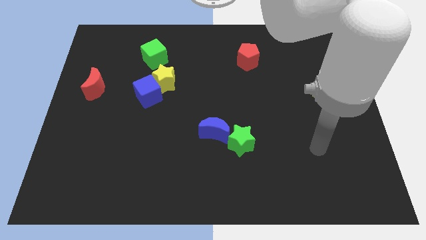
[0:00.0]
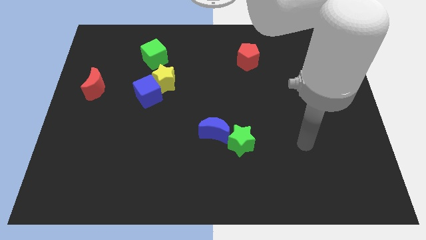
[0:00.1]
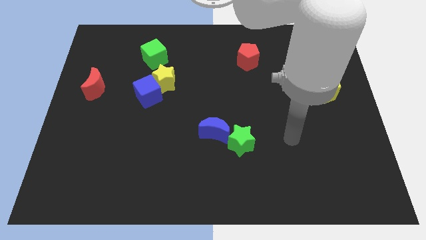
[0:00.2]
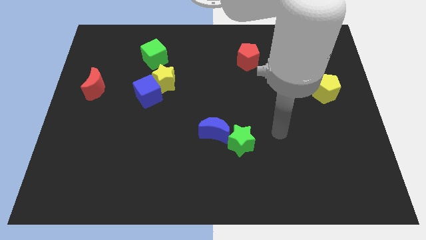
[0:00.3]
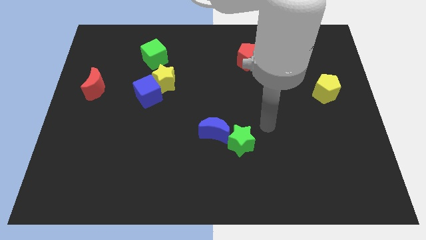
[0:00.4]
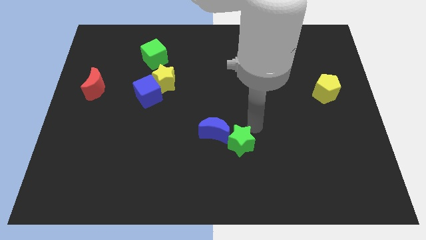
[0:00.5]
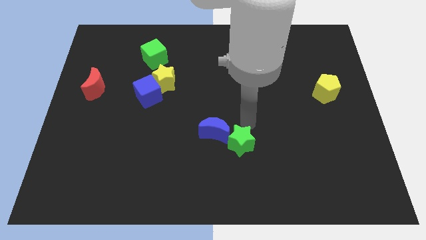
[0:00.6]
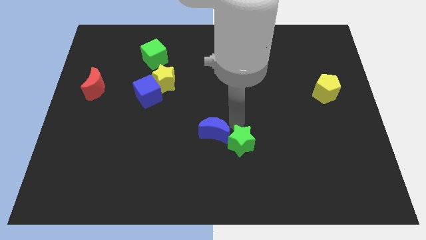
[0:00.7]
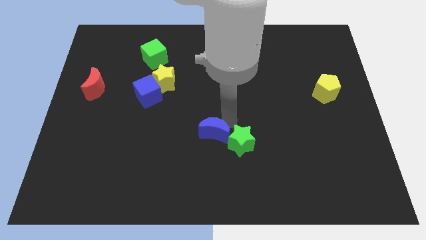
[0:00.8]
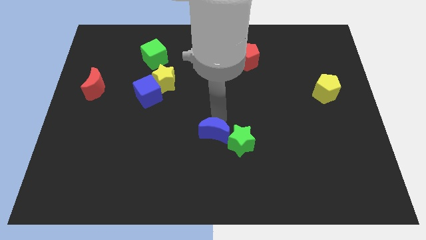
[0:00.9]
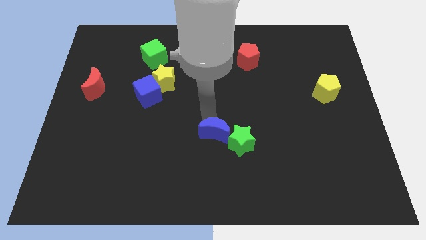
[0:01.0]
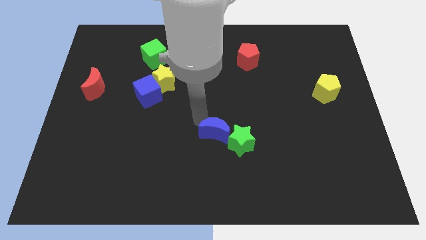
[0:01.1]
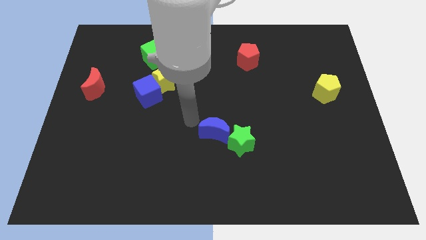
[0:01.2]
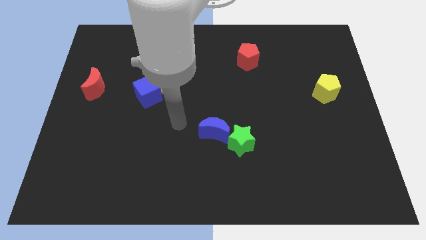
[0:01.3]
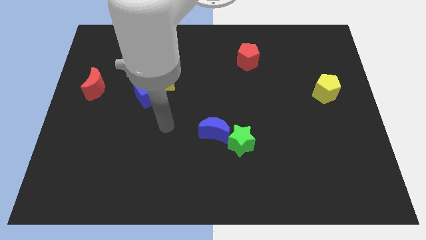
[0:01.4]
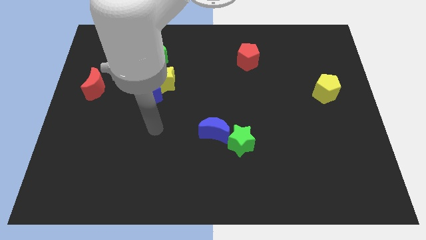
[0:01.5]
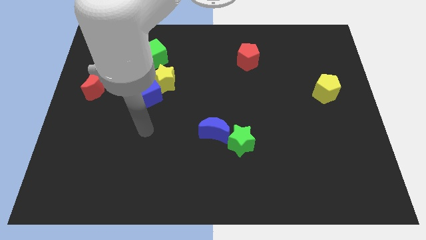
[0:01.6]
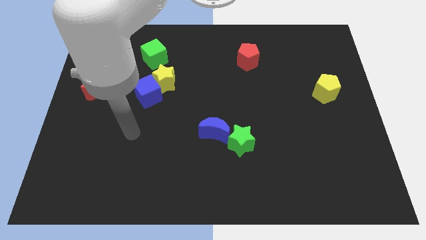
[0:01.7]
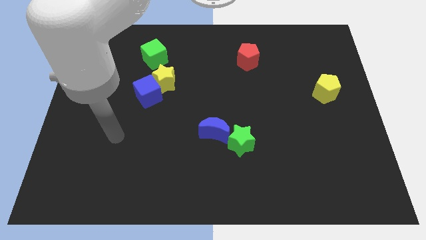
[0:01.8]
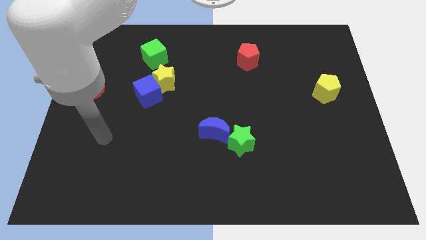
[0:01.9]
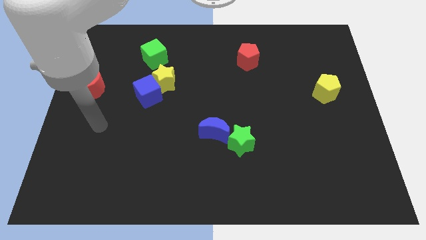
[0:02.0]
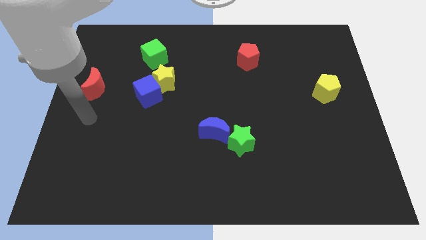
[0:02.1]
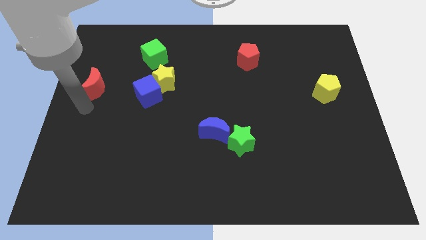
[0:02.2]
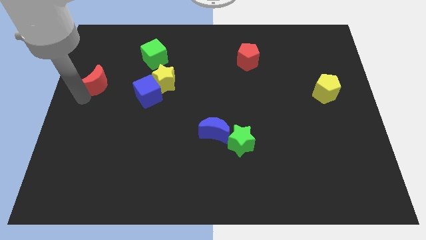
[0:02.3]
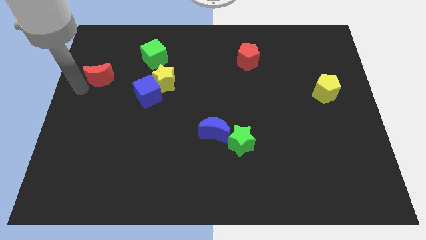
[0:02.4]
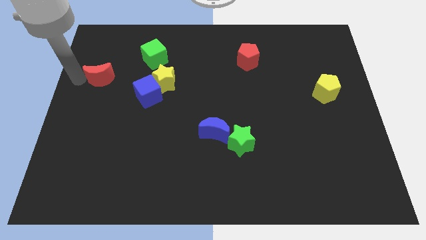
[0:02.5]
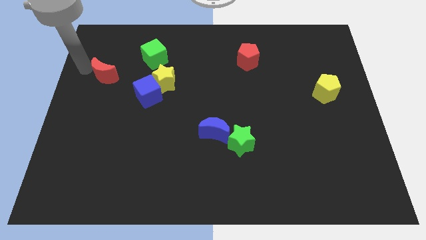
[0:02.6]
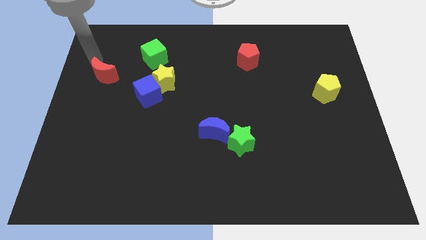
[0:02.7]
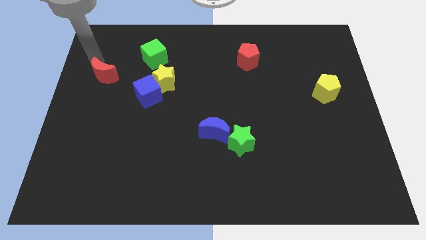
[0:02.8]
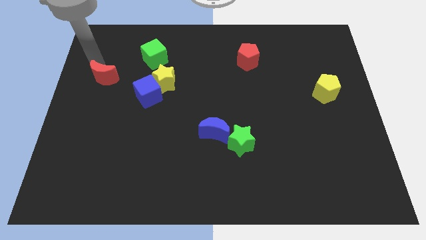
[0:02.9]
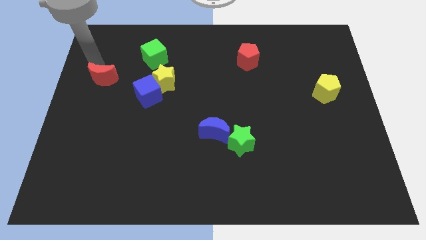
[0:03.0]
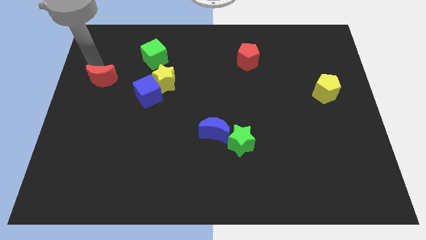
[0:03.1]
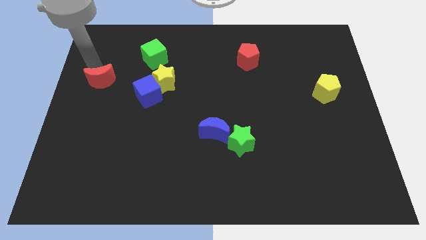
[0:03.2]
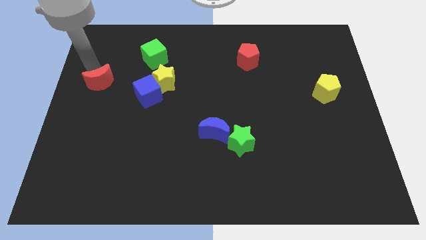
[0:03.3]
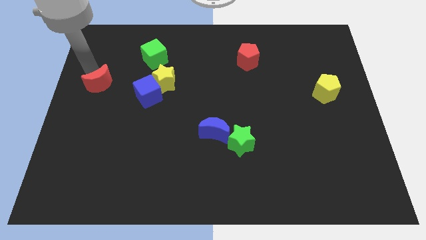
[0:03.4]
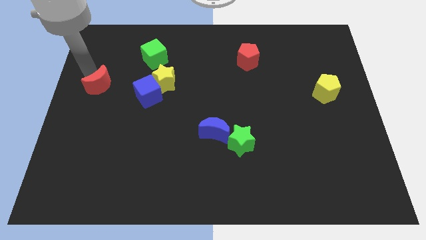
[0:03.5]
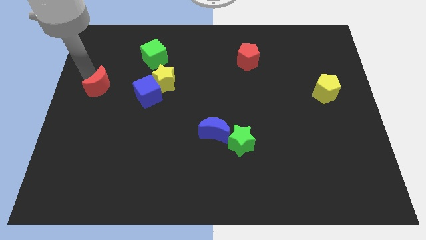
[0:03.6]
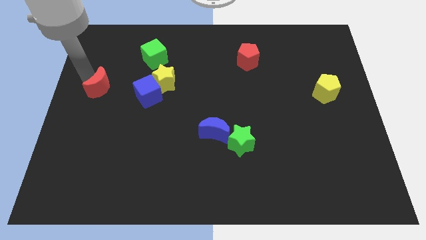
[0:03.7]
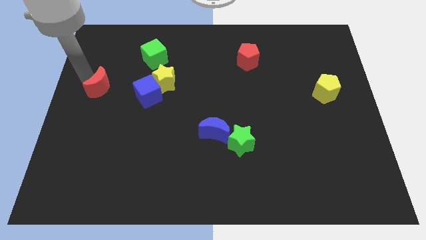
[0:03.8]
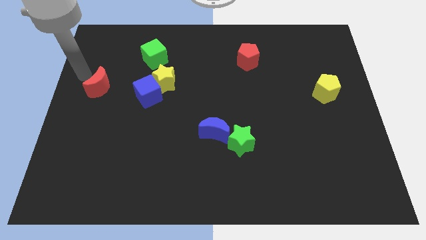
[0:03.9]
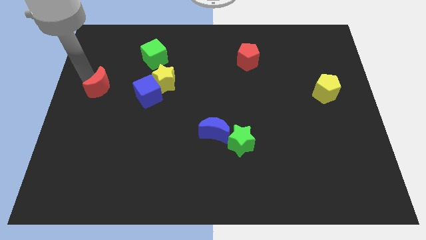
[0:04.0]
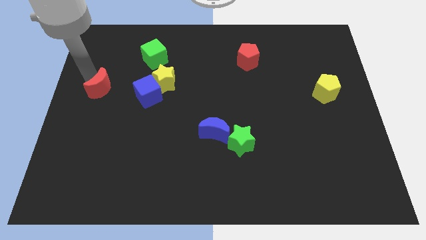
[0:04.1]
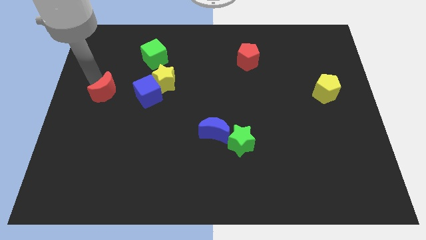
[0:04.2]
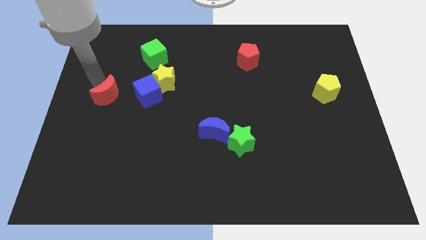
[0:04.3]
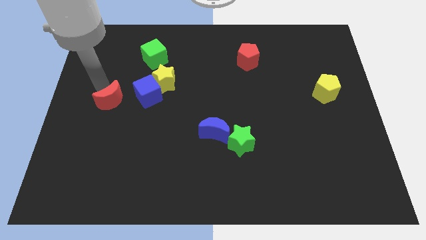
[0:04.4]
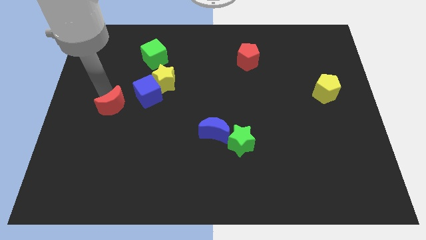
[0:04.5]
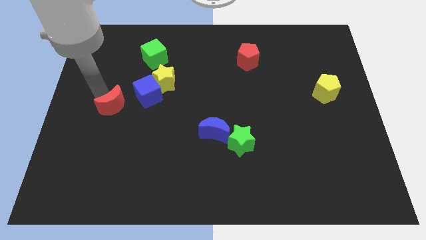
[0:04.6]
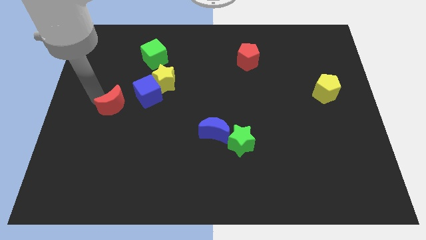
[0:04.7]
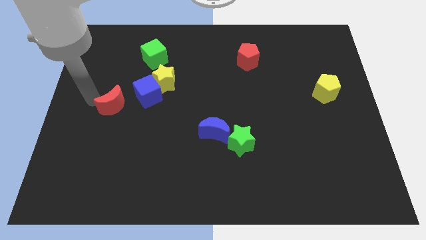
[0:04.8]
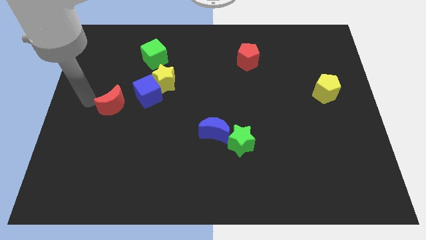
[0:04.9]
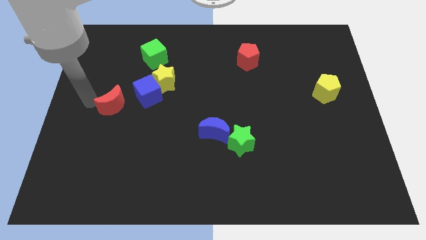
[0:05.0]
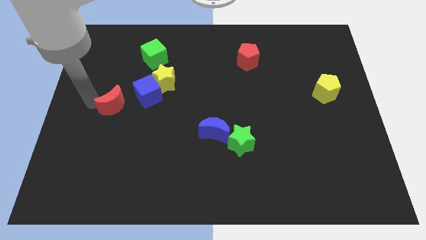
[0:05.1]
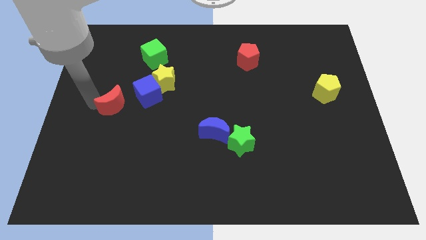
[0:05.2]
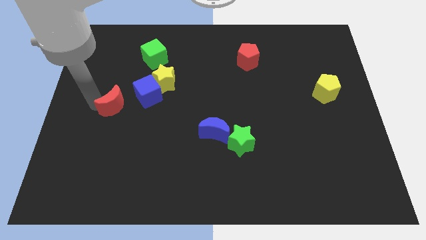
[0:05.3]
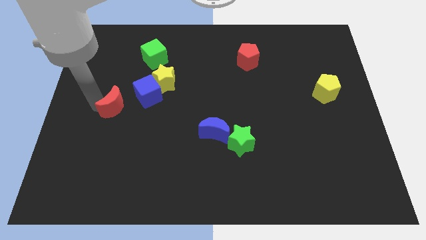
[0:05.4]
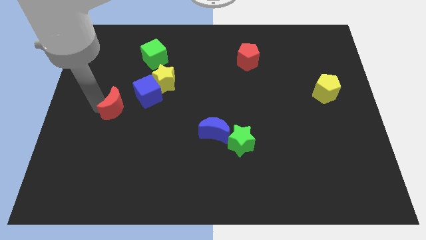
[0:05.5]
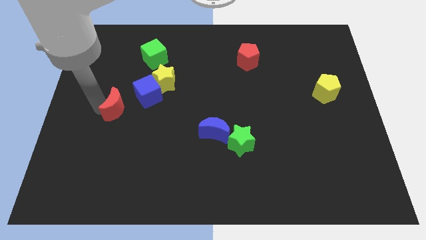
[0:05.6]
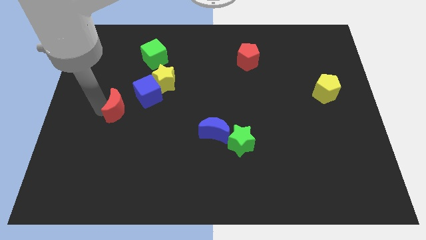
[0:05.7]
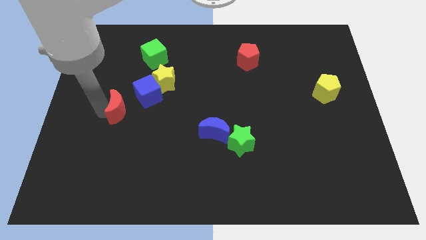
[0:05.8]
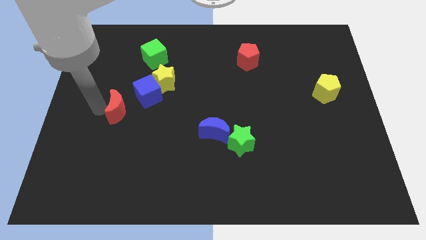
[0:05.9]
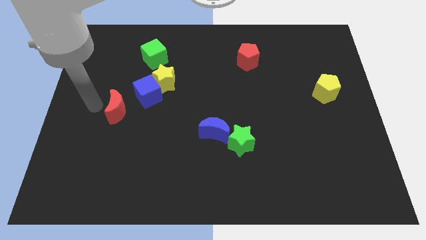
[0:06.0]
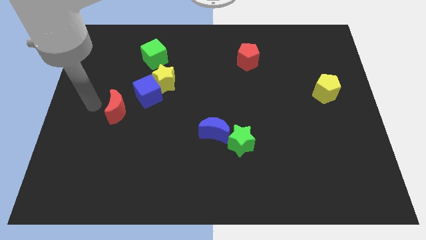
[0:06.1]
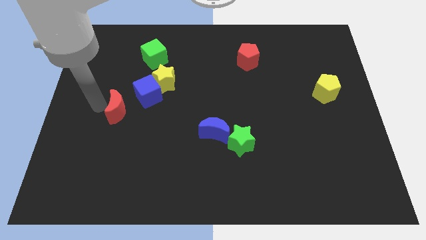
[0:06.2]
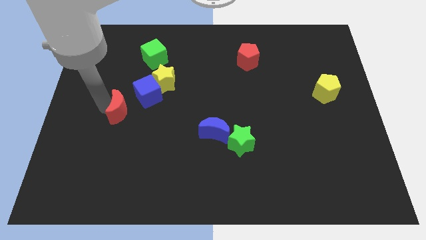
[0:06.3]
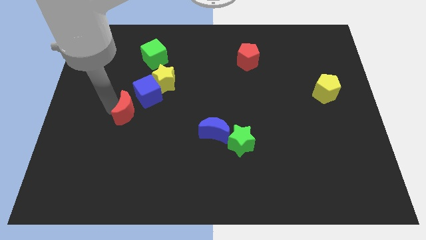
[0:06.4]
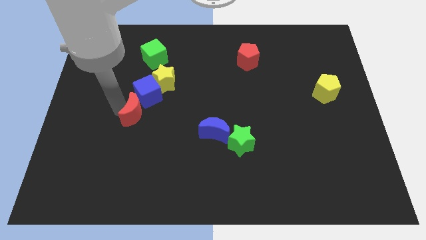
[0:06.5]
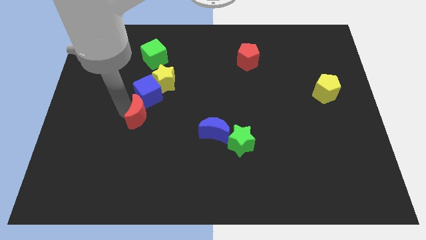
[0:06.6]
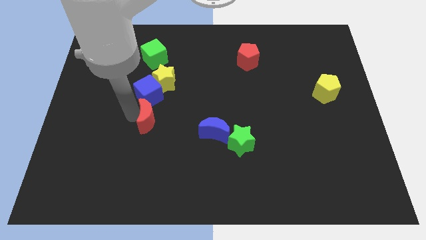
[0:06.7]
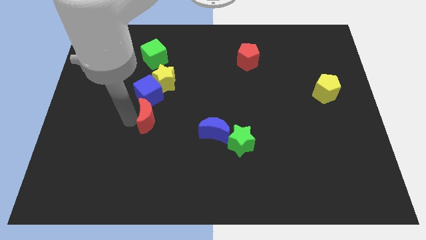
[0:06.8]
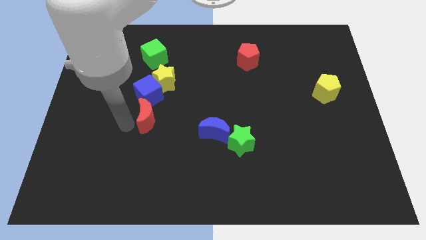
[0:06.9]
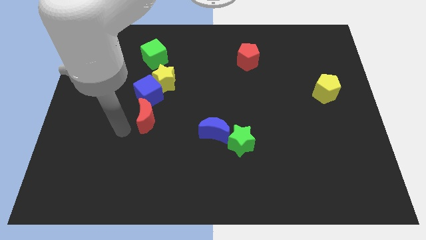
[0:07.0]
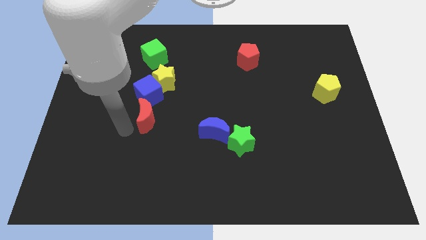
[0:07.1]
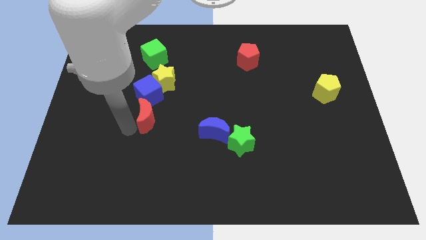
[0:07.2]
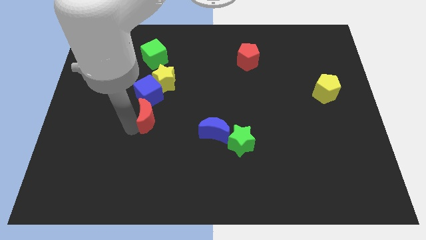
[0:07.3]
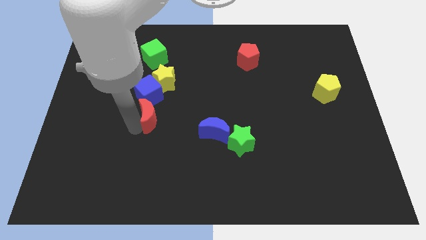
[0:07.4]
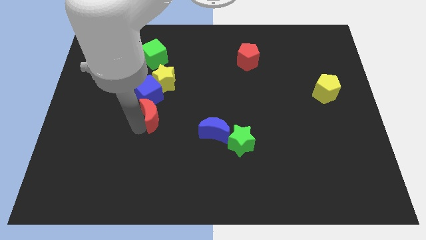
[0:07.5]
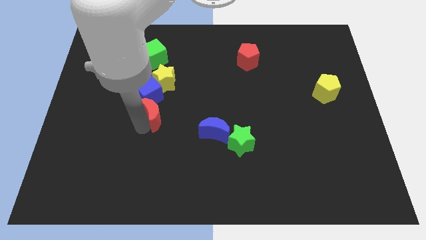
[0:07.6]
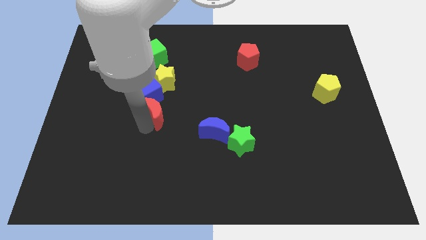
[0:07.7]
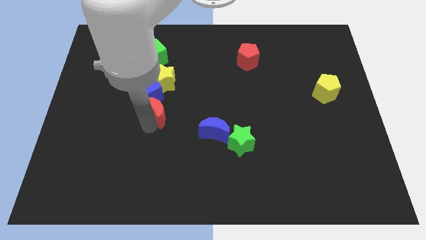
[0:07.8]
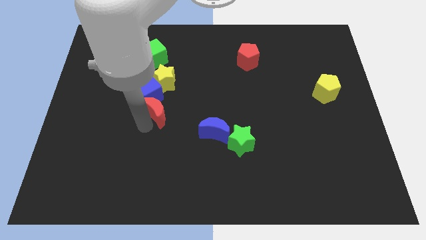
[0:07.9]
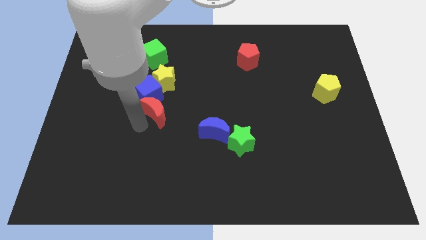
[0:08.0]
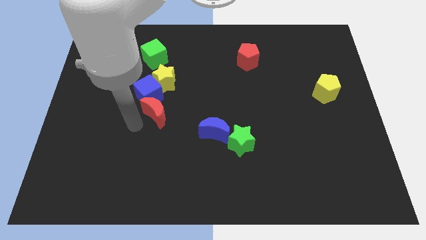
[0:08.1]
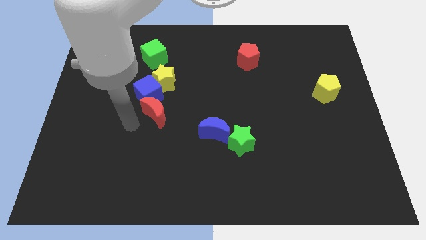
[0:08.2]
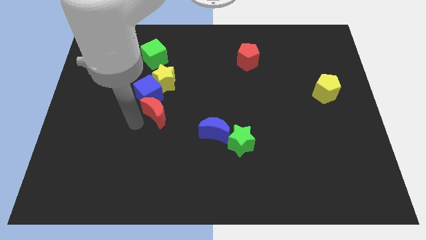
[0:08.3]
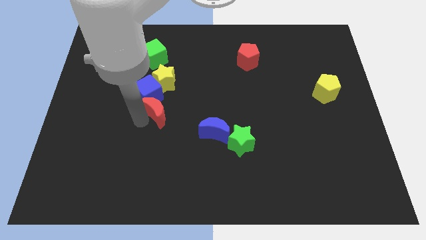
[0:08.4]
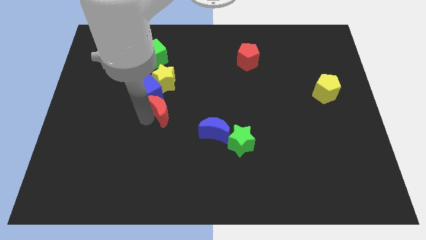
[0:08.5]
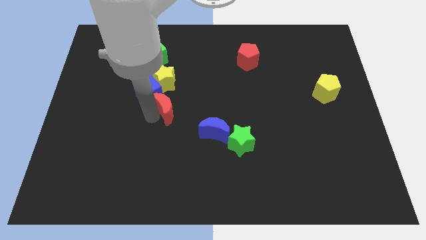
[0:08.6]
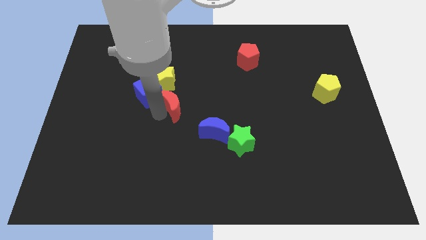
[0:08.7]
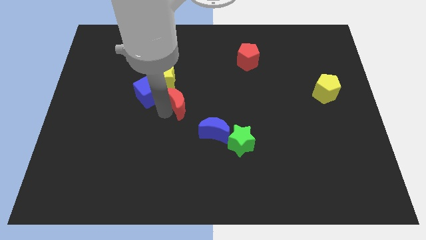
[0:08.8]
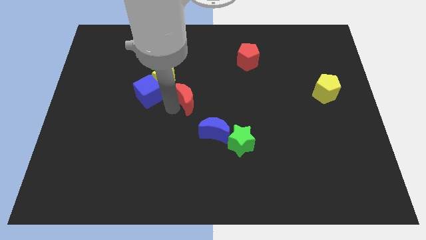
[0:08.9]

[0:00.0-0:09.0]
move the red moon right
